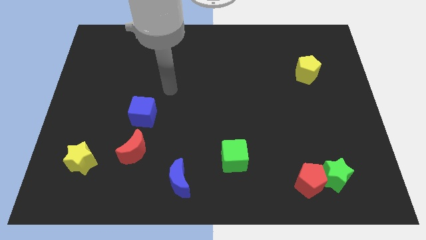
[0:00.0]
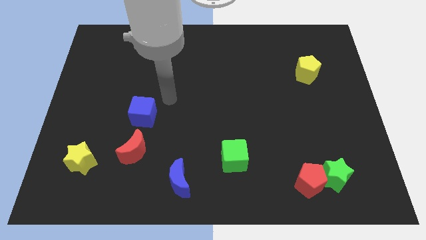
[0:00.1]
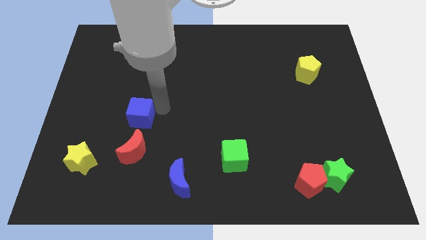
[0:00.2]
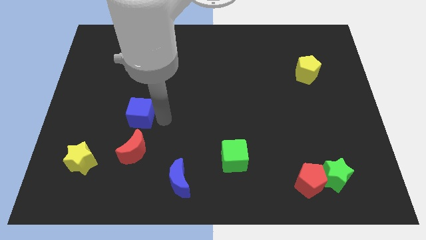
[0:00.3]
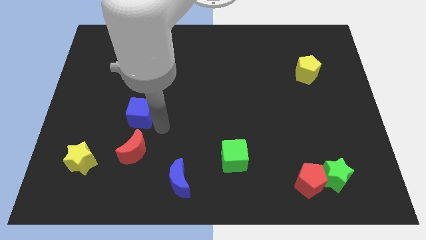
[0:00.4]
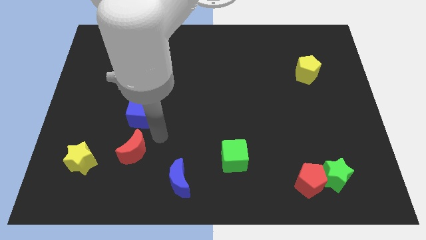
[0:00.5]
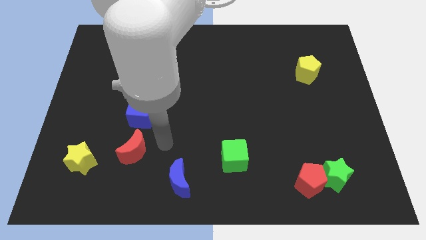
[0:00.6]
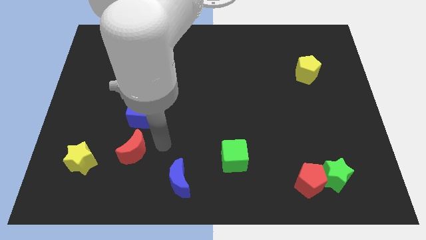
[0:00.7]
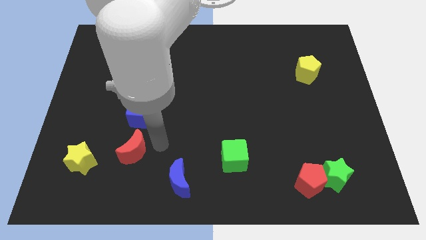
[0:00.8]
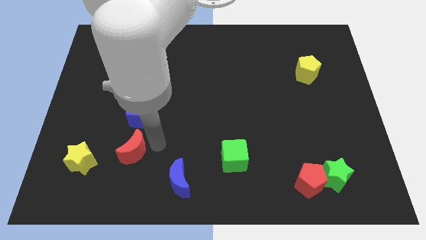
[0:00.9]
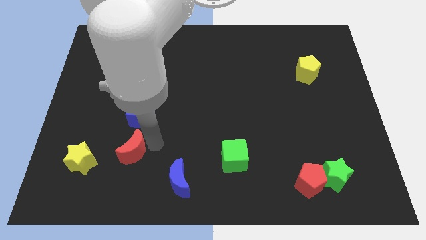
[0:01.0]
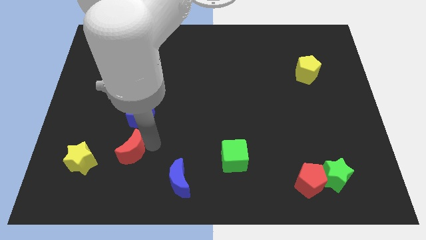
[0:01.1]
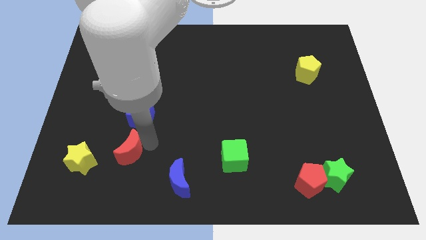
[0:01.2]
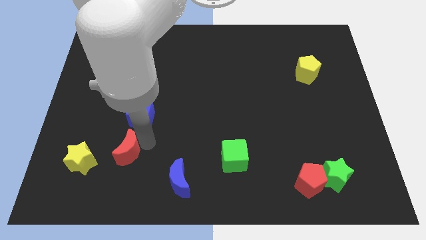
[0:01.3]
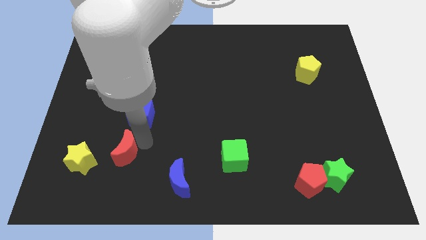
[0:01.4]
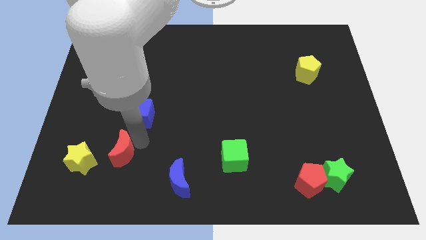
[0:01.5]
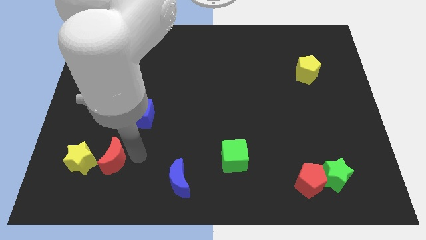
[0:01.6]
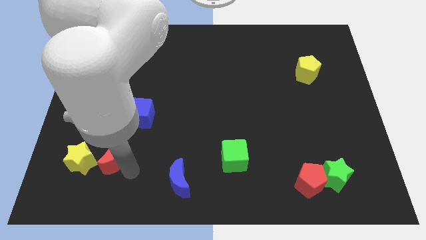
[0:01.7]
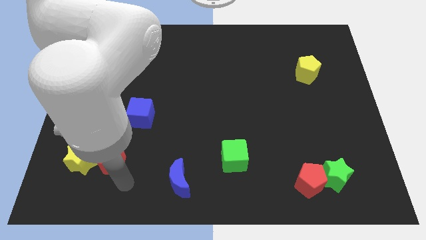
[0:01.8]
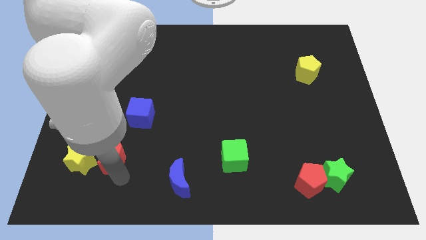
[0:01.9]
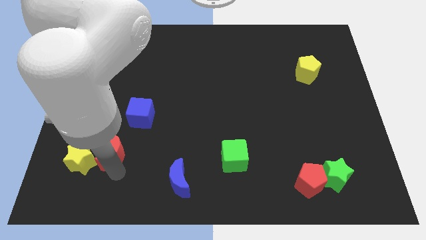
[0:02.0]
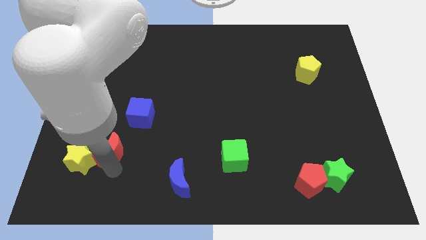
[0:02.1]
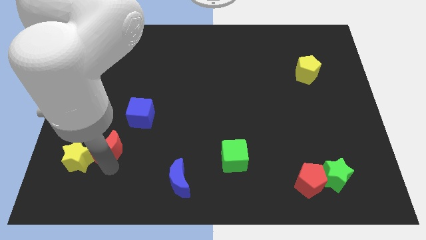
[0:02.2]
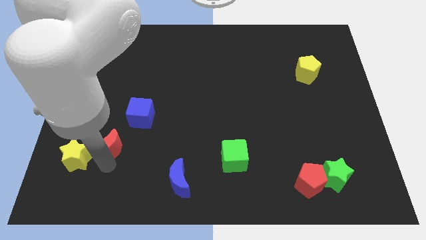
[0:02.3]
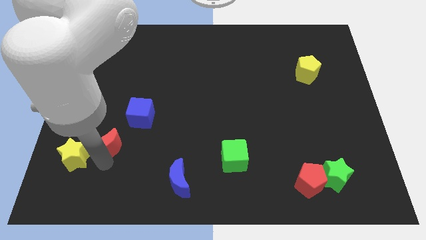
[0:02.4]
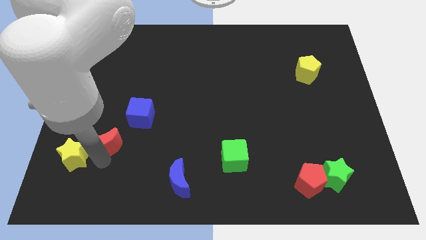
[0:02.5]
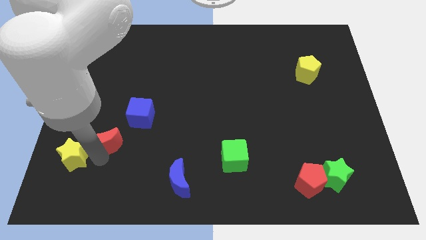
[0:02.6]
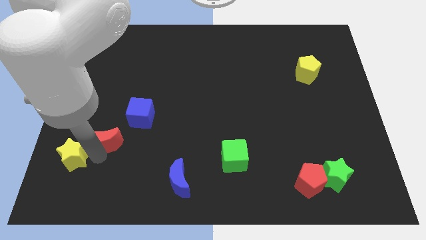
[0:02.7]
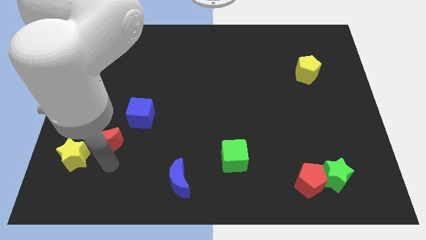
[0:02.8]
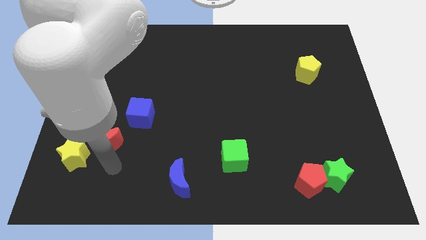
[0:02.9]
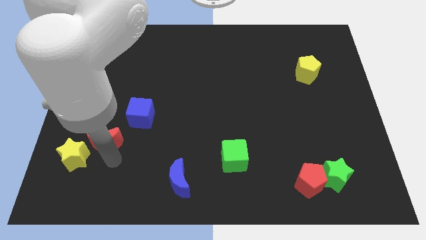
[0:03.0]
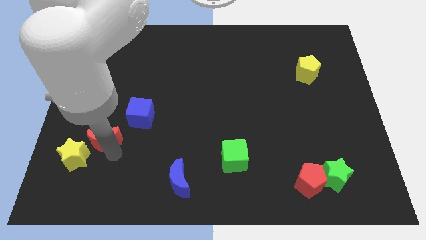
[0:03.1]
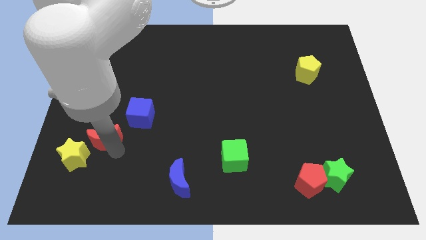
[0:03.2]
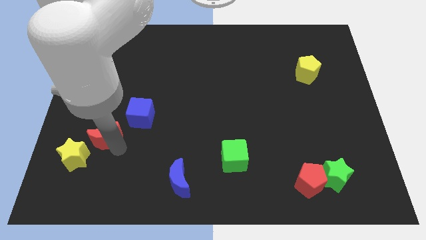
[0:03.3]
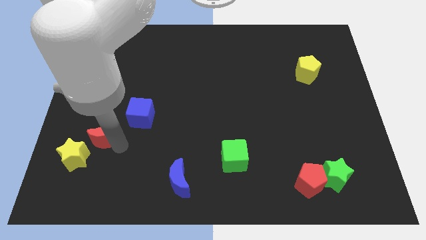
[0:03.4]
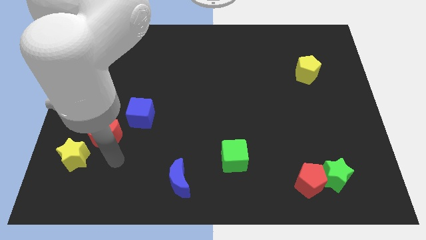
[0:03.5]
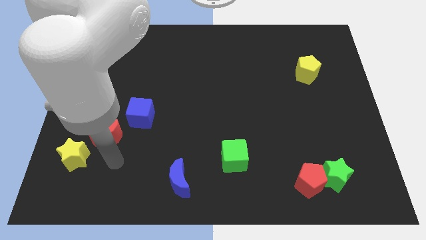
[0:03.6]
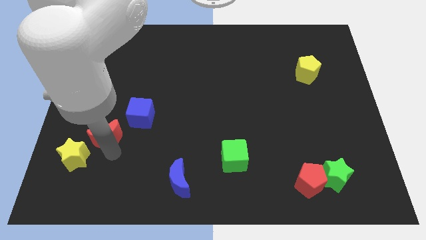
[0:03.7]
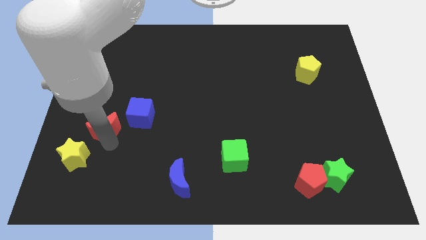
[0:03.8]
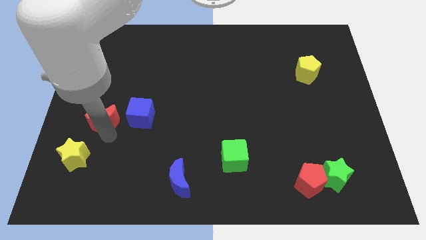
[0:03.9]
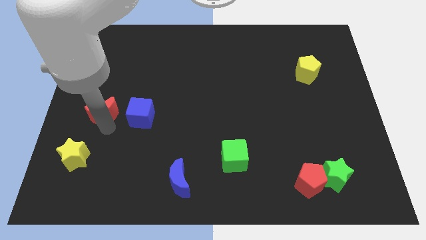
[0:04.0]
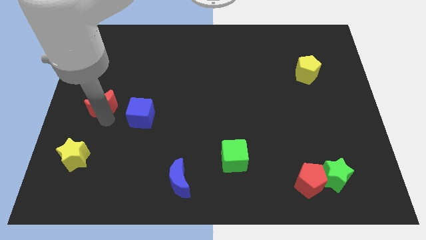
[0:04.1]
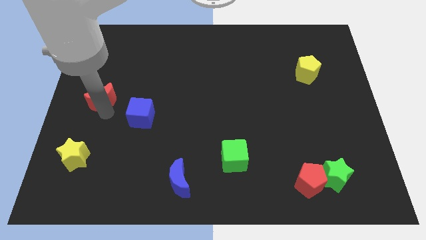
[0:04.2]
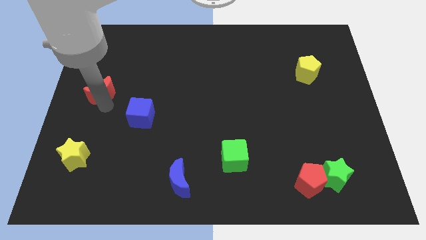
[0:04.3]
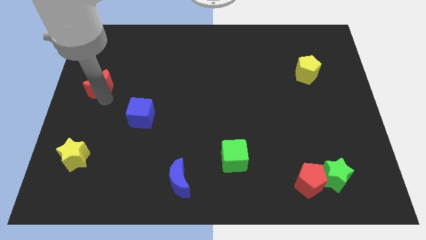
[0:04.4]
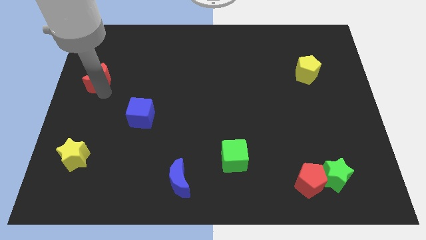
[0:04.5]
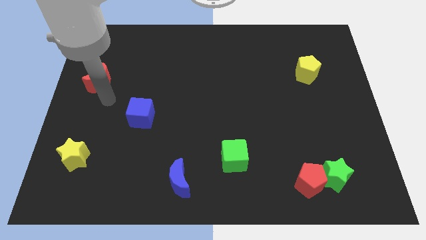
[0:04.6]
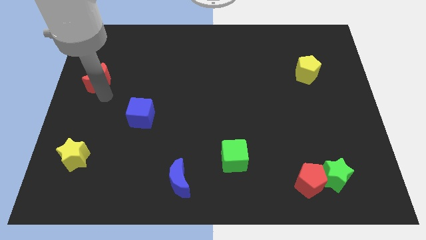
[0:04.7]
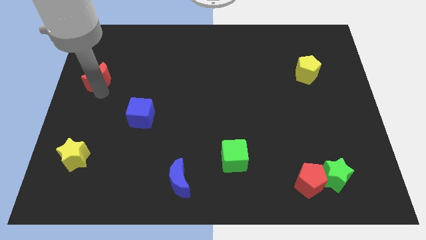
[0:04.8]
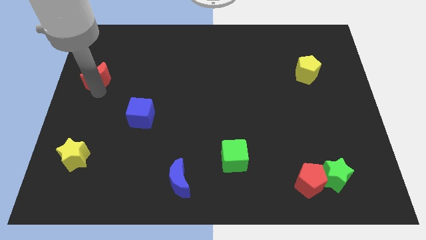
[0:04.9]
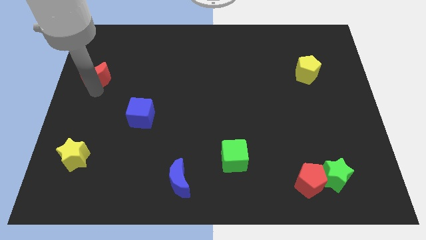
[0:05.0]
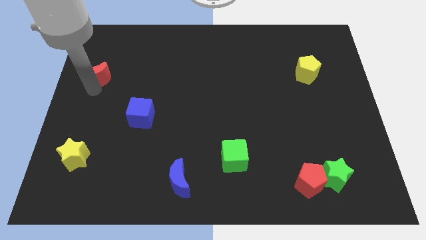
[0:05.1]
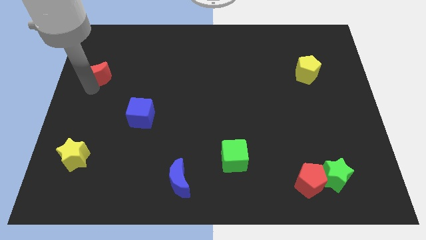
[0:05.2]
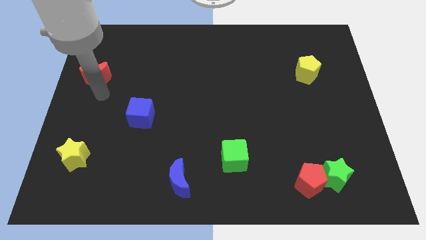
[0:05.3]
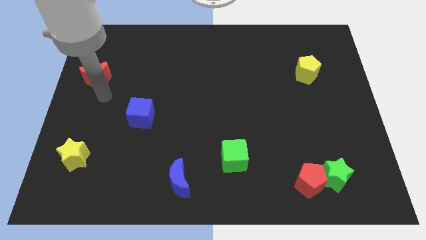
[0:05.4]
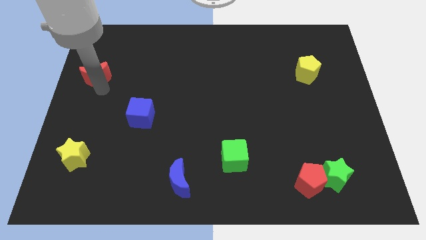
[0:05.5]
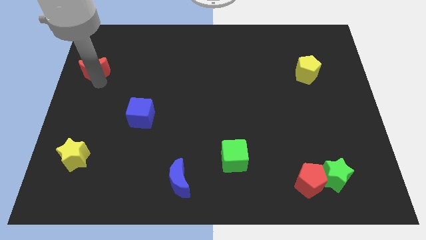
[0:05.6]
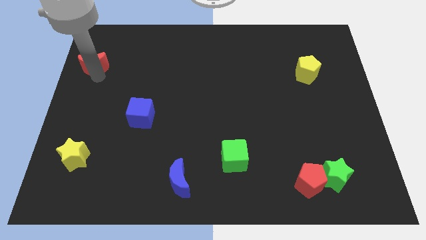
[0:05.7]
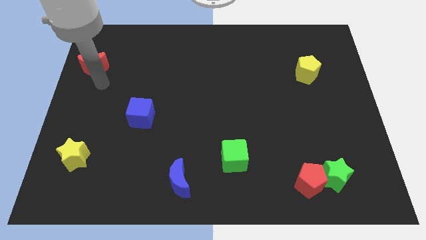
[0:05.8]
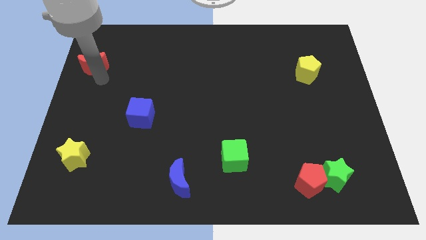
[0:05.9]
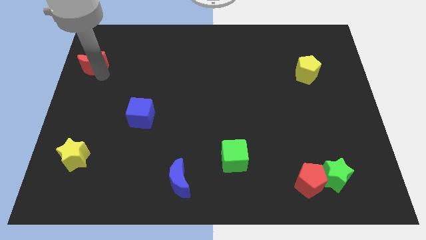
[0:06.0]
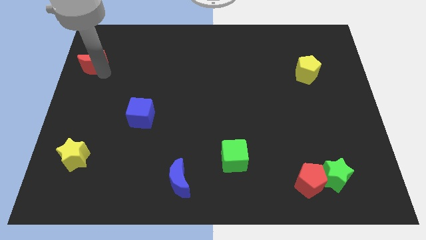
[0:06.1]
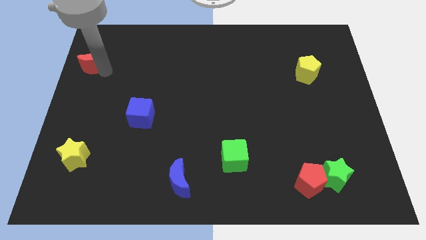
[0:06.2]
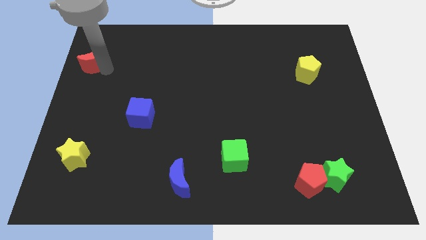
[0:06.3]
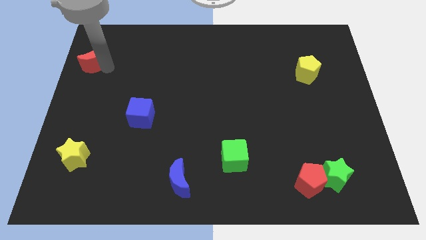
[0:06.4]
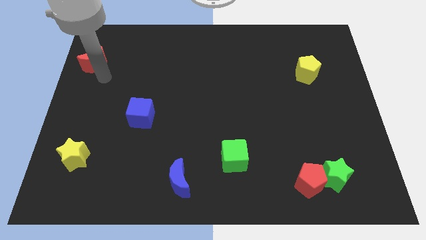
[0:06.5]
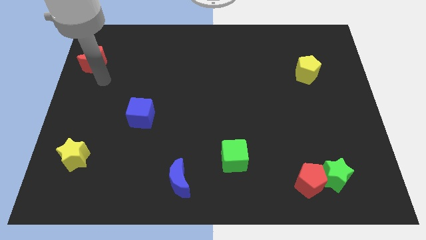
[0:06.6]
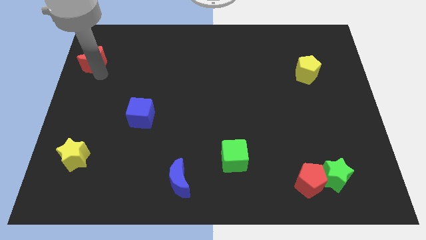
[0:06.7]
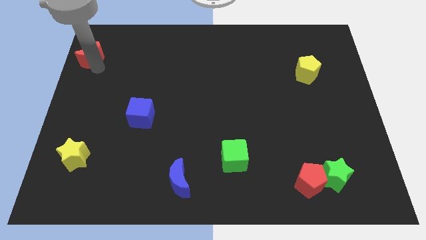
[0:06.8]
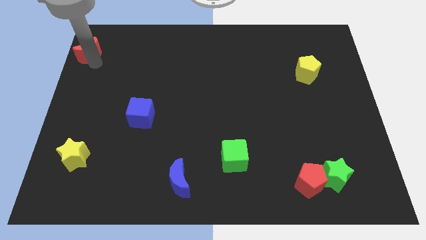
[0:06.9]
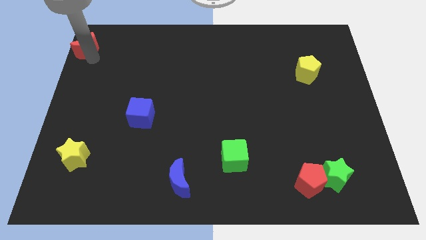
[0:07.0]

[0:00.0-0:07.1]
move the red moon to the top left corner
